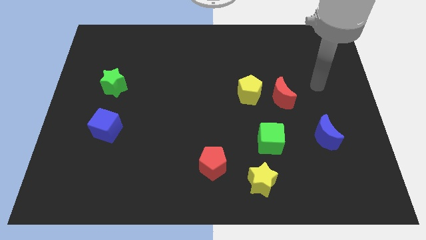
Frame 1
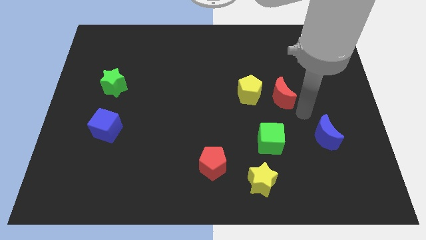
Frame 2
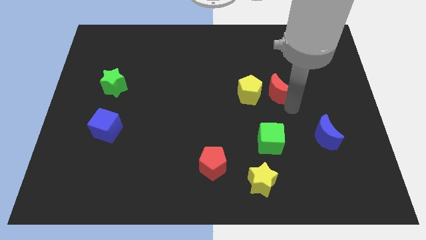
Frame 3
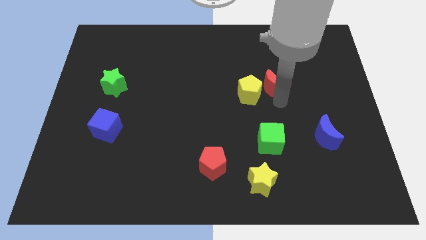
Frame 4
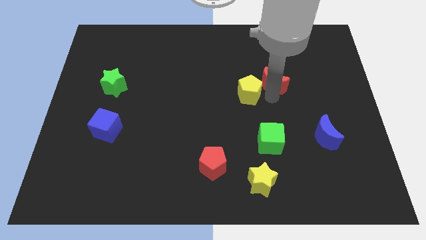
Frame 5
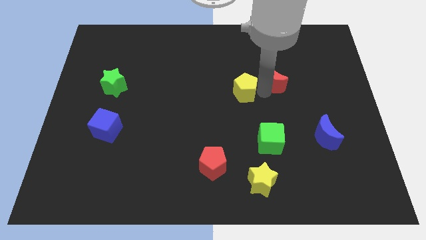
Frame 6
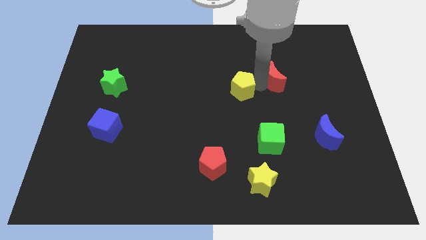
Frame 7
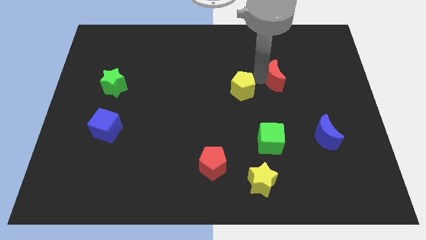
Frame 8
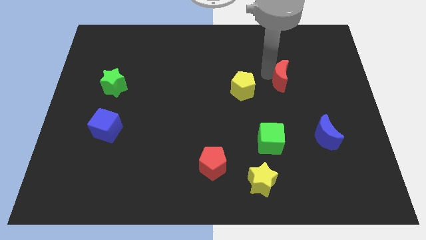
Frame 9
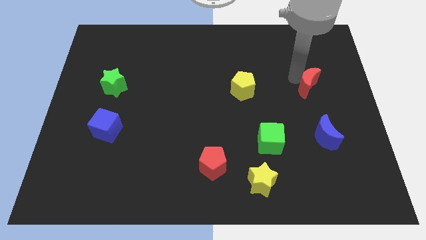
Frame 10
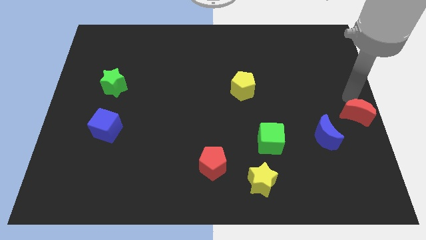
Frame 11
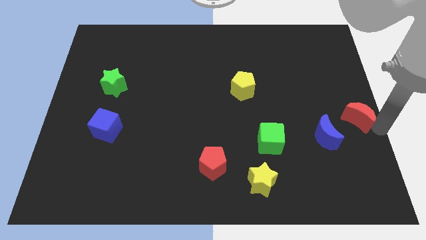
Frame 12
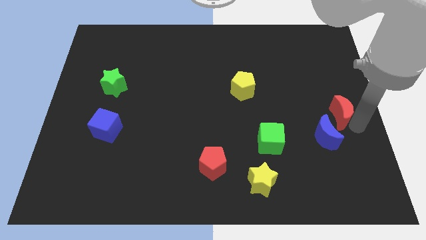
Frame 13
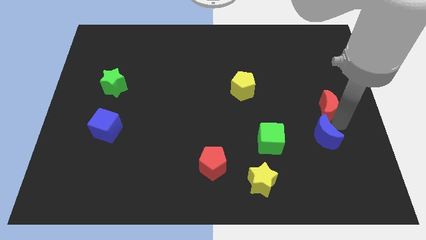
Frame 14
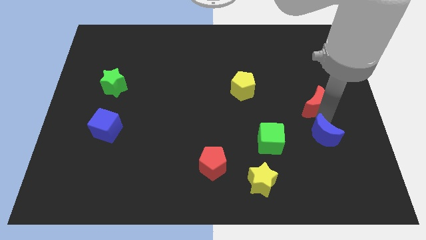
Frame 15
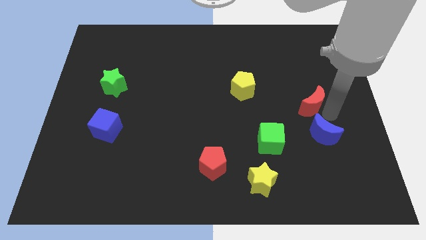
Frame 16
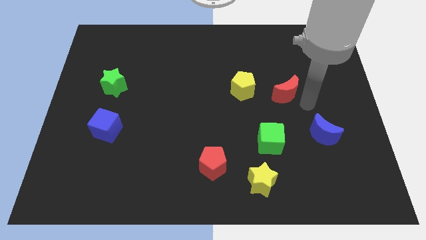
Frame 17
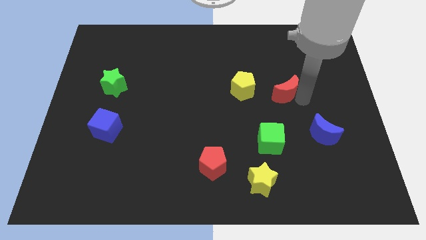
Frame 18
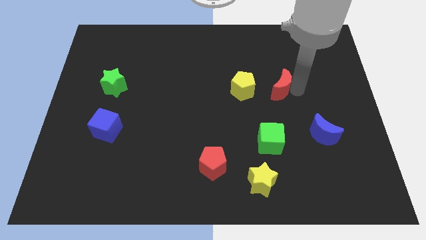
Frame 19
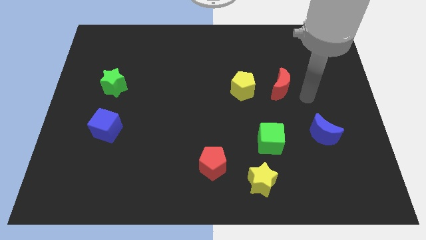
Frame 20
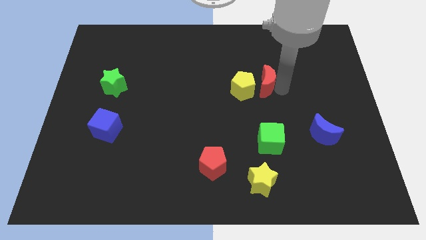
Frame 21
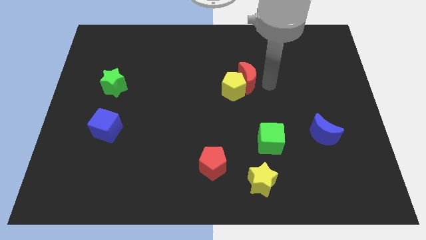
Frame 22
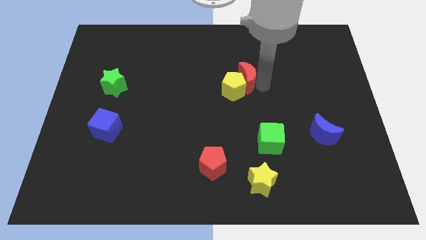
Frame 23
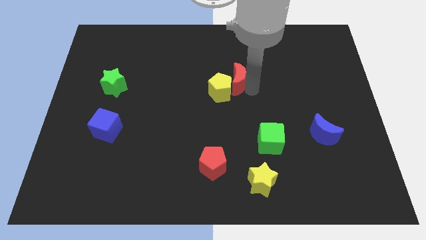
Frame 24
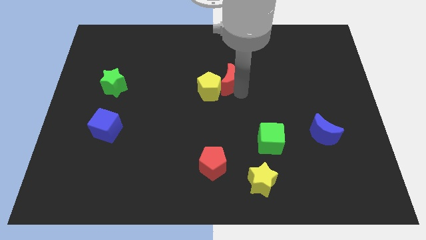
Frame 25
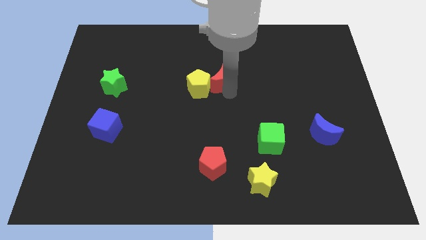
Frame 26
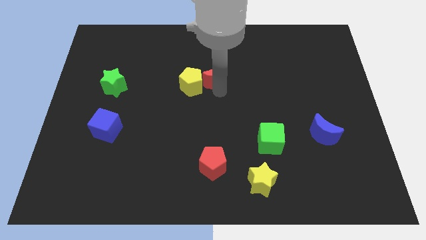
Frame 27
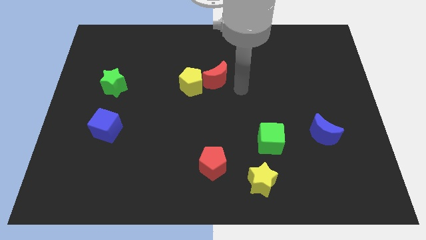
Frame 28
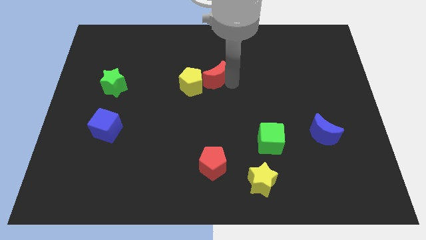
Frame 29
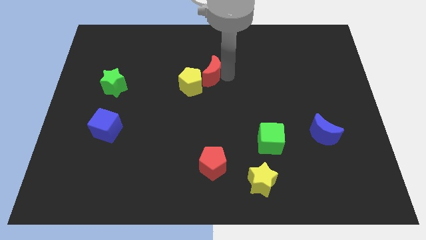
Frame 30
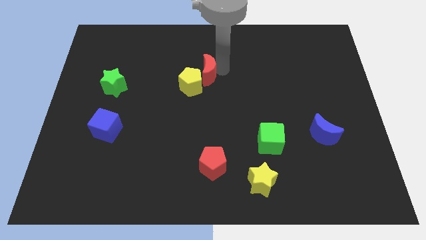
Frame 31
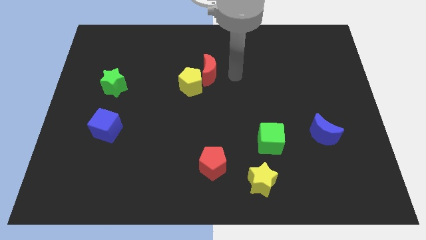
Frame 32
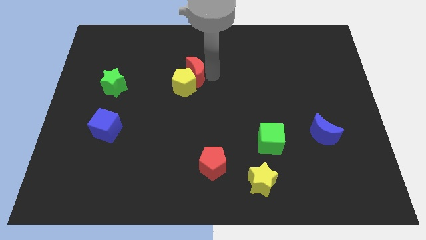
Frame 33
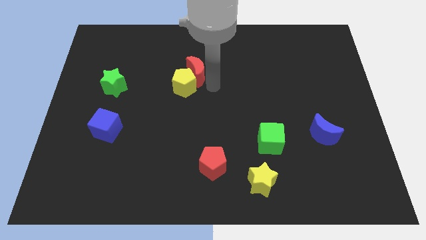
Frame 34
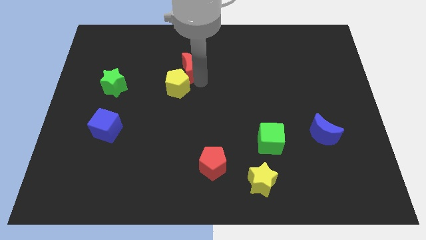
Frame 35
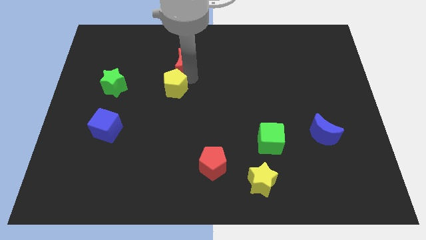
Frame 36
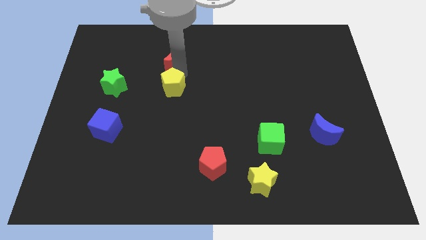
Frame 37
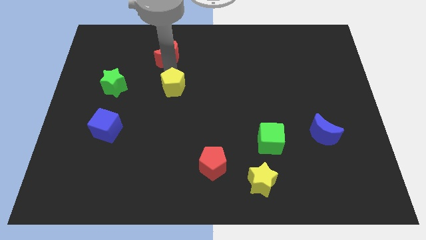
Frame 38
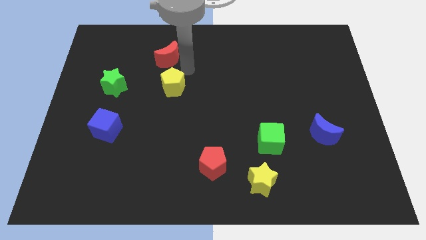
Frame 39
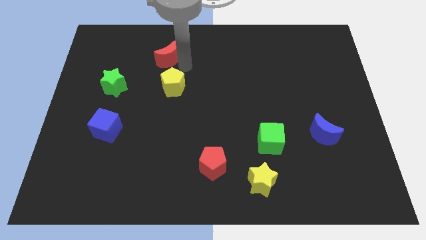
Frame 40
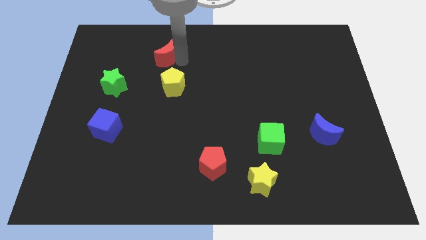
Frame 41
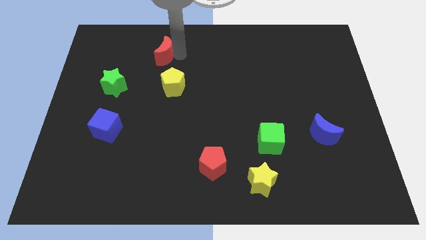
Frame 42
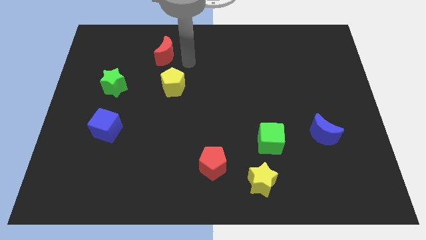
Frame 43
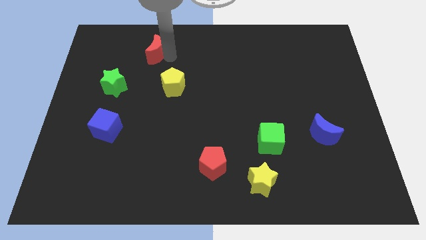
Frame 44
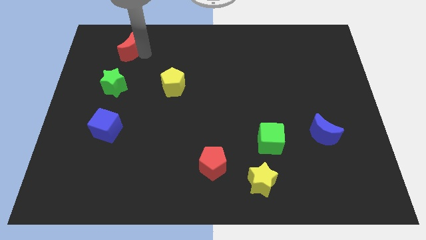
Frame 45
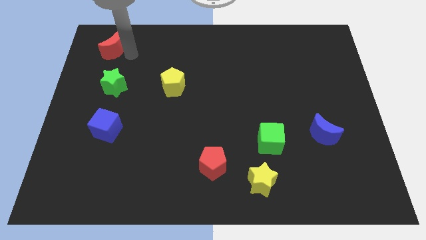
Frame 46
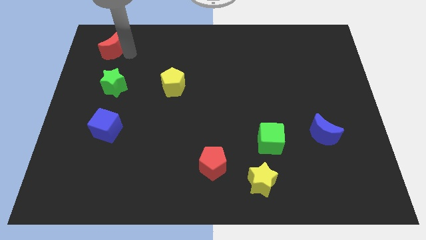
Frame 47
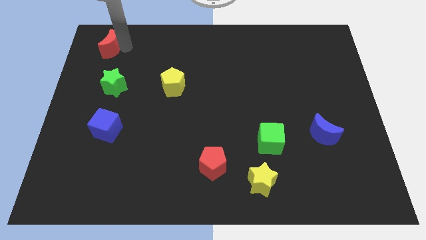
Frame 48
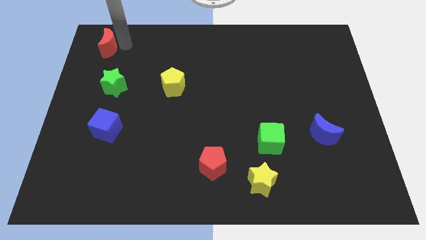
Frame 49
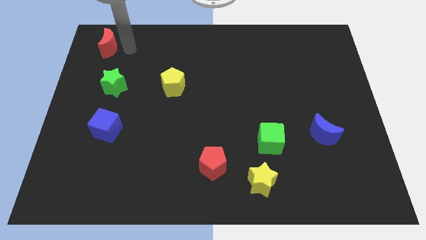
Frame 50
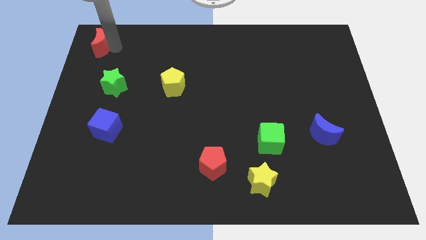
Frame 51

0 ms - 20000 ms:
slide the red moon to the top left

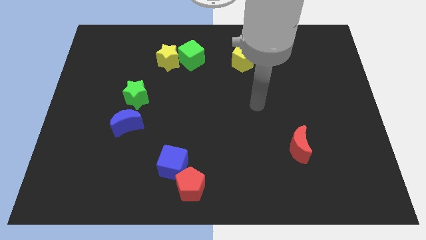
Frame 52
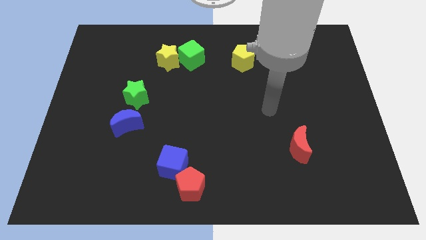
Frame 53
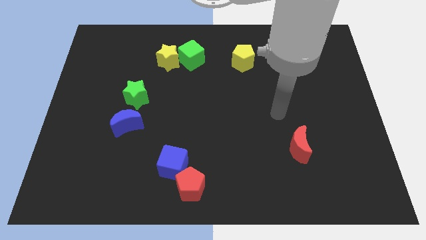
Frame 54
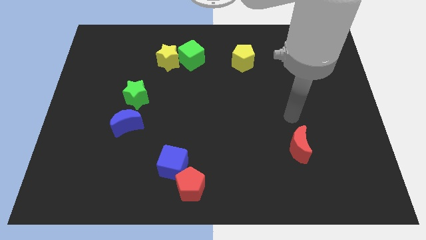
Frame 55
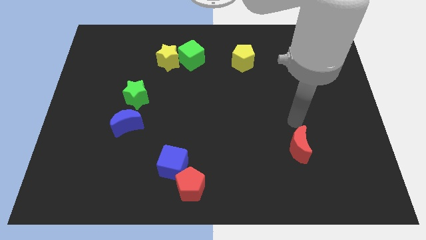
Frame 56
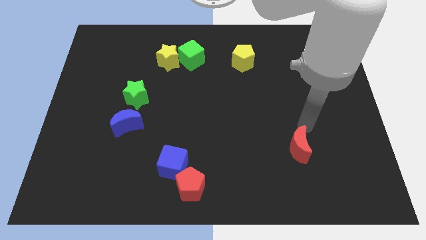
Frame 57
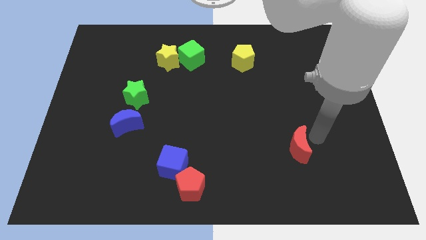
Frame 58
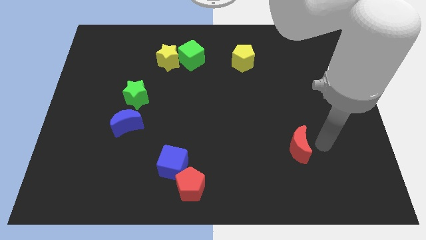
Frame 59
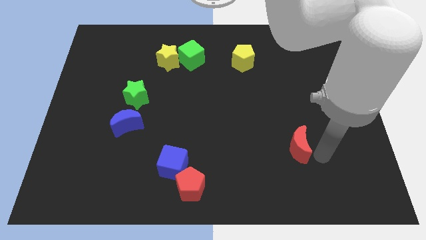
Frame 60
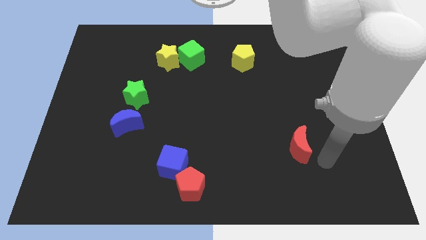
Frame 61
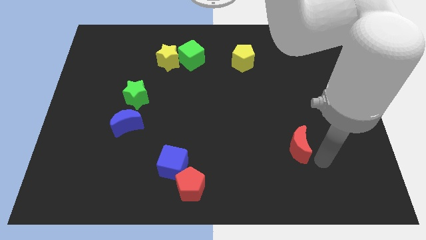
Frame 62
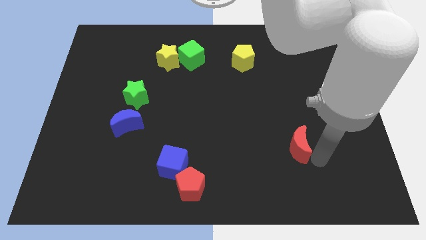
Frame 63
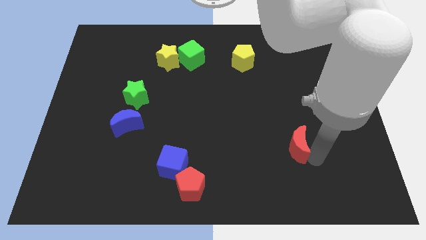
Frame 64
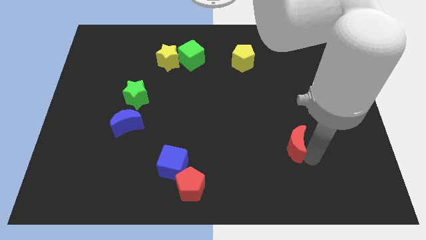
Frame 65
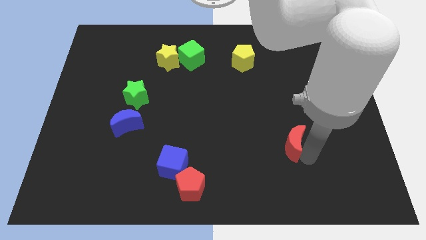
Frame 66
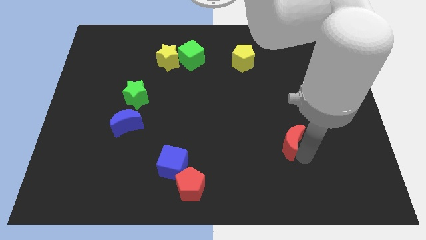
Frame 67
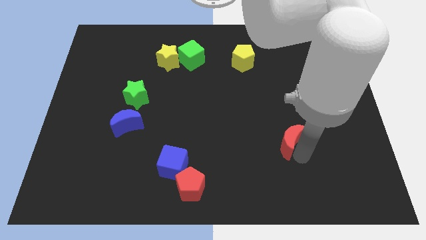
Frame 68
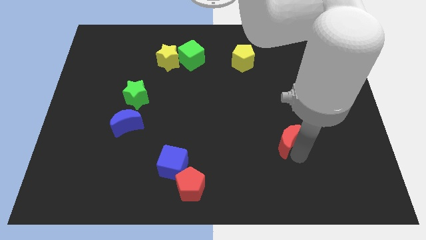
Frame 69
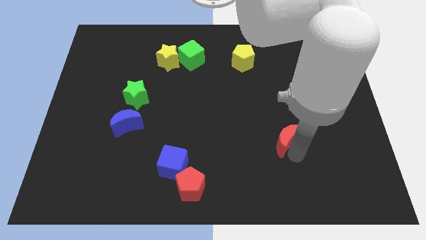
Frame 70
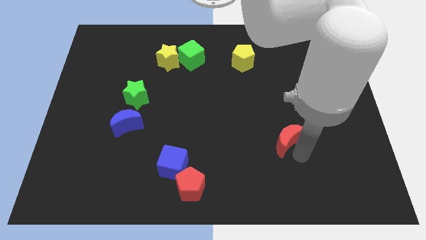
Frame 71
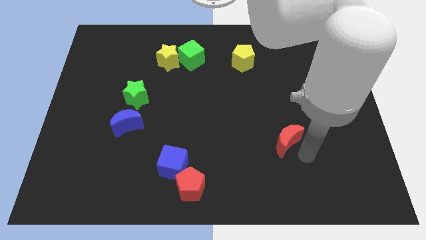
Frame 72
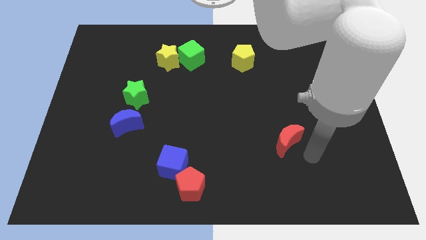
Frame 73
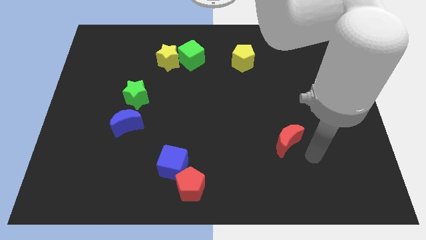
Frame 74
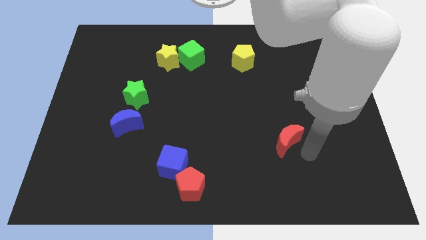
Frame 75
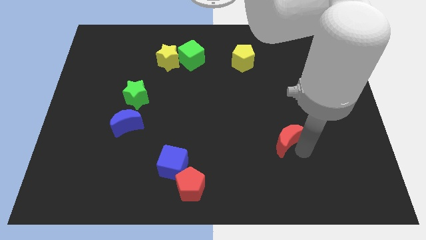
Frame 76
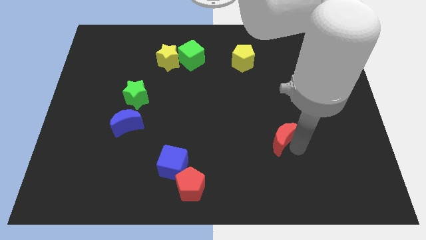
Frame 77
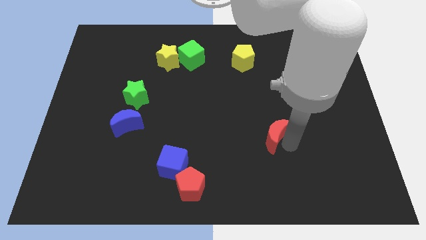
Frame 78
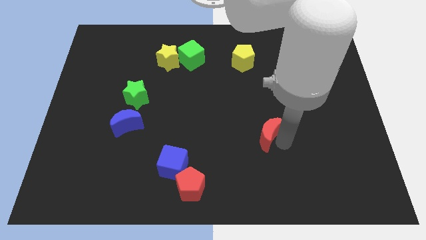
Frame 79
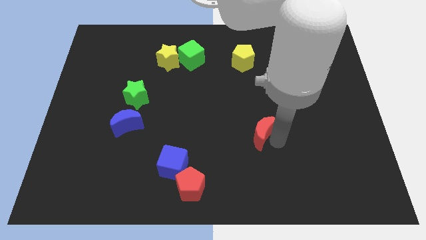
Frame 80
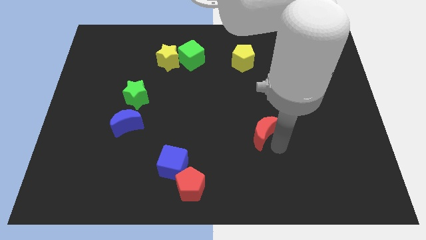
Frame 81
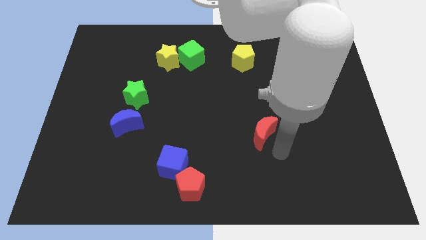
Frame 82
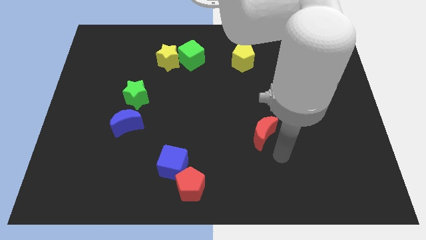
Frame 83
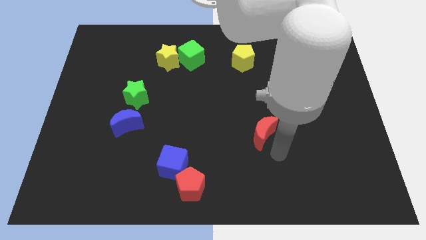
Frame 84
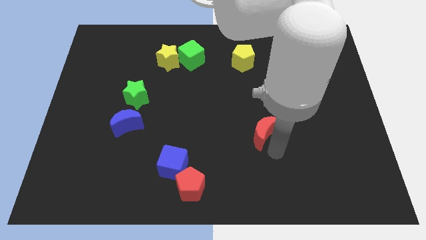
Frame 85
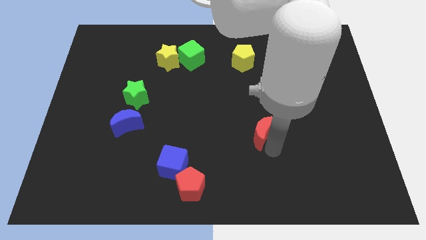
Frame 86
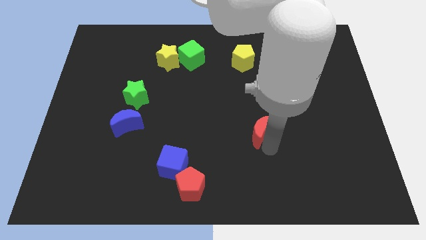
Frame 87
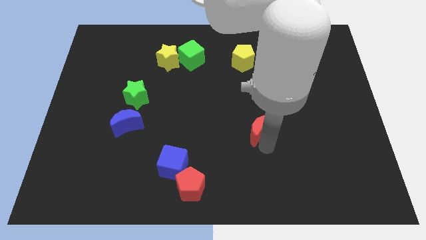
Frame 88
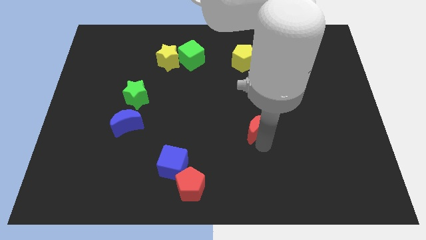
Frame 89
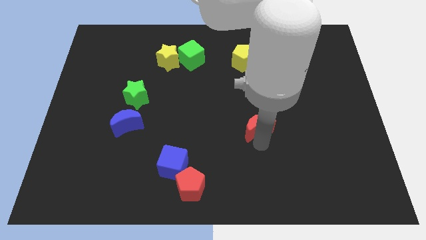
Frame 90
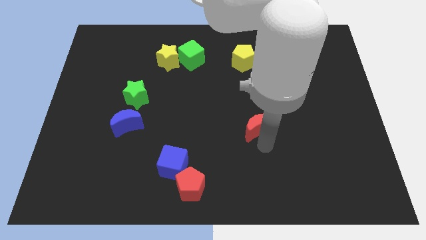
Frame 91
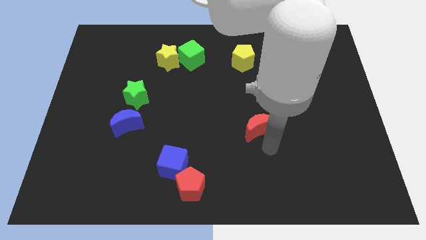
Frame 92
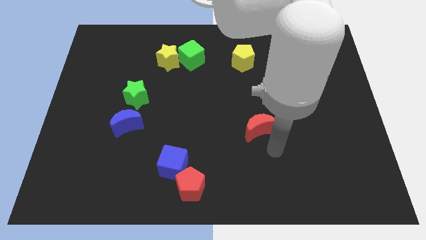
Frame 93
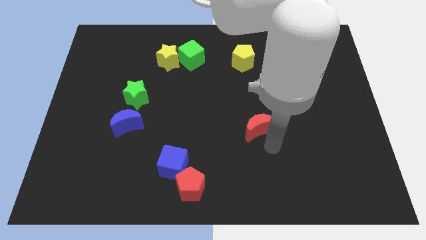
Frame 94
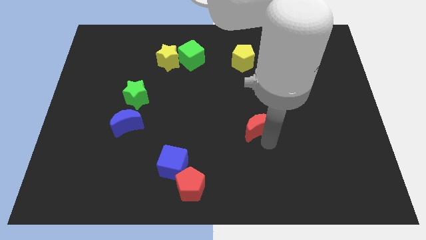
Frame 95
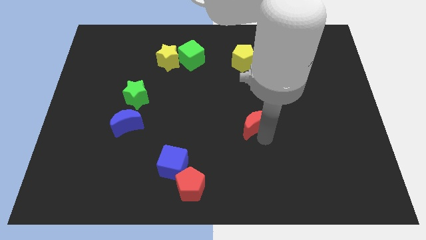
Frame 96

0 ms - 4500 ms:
slide the red moon to the middle
